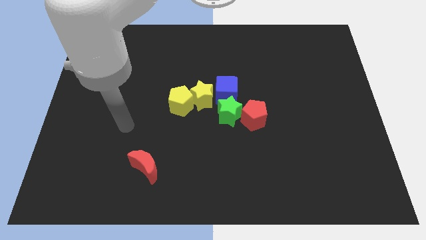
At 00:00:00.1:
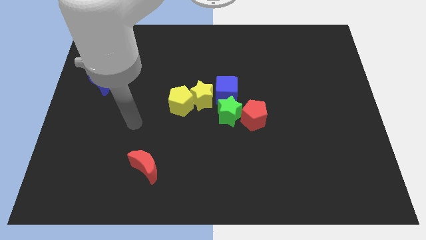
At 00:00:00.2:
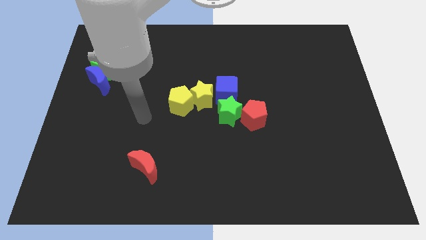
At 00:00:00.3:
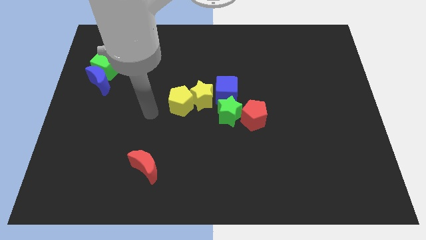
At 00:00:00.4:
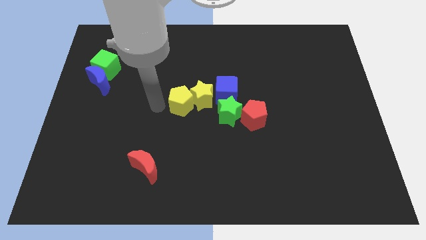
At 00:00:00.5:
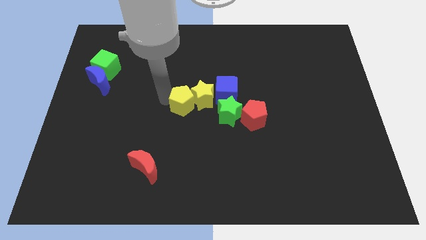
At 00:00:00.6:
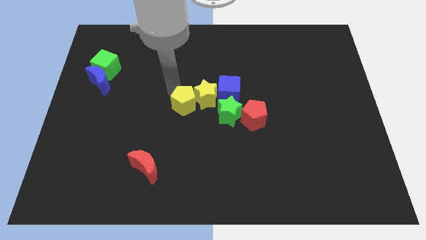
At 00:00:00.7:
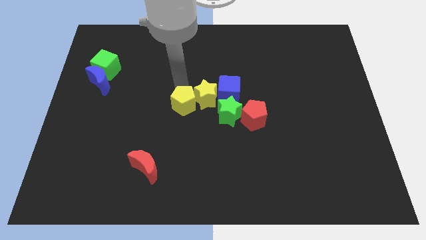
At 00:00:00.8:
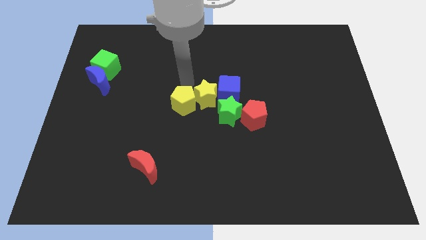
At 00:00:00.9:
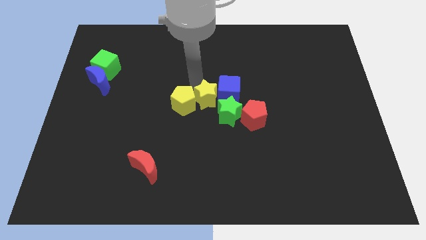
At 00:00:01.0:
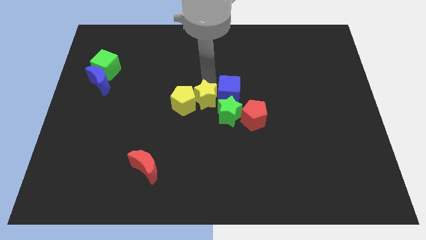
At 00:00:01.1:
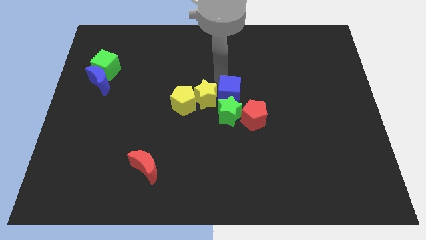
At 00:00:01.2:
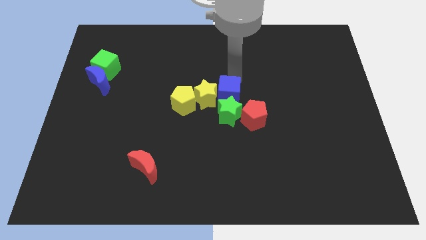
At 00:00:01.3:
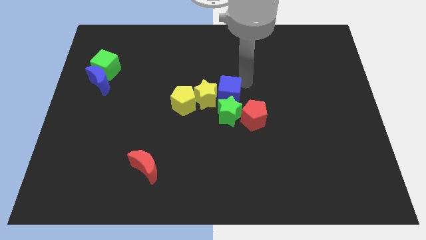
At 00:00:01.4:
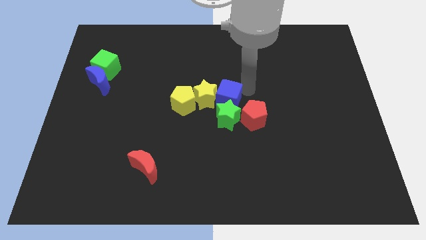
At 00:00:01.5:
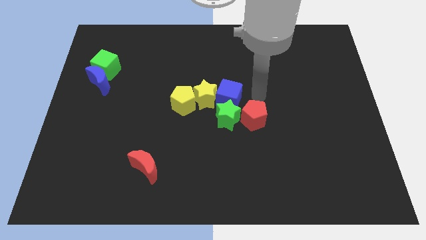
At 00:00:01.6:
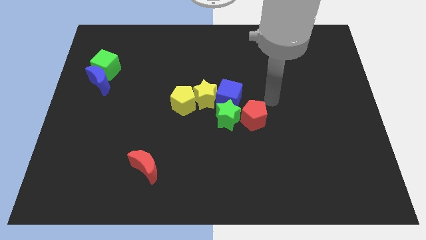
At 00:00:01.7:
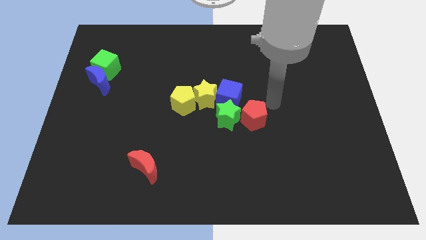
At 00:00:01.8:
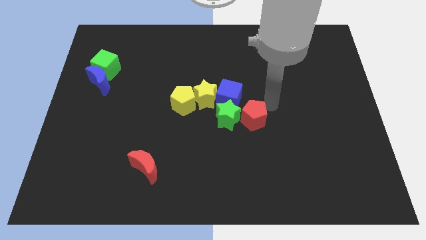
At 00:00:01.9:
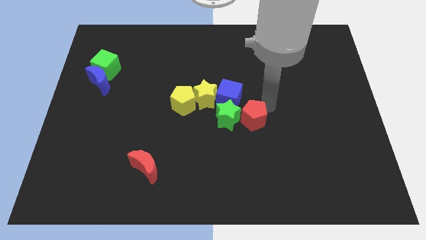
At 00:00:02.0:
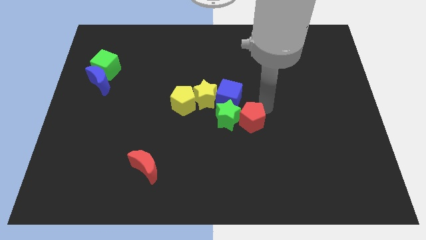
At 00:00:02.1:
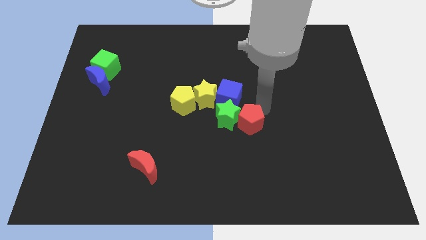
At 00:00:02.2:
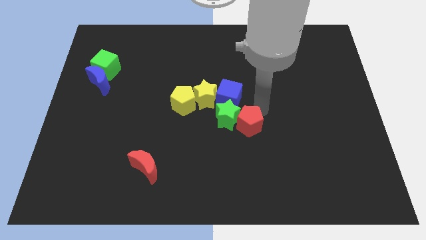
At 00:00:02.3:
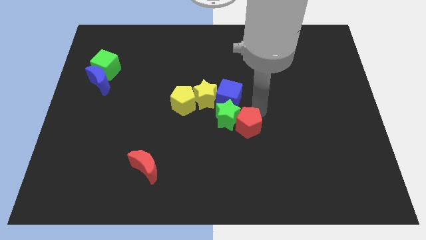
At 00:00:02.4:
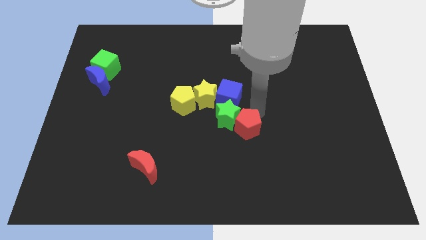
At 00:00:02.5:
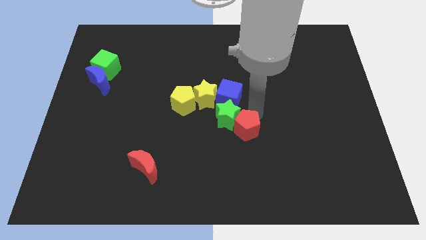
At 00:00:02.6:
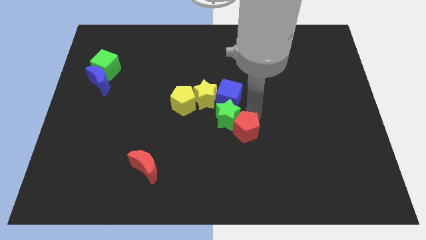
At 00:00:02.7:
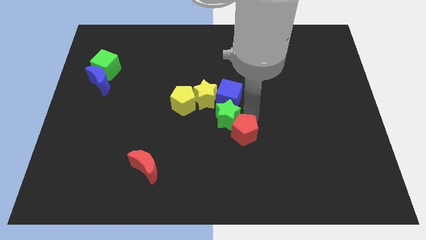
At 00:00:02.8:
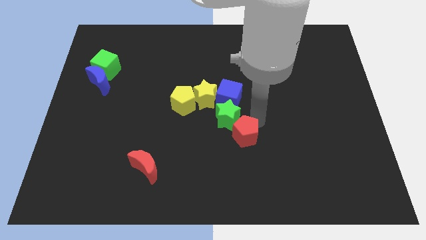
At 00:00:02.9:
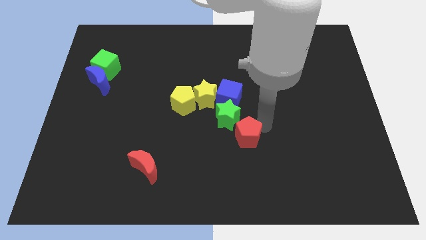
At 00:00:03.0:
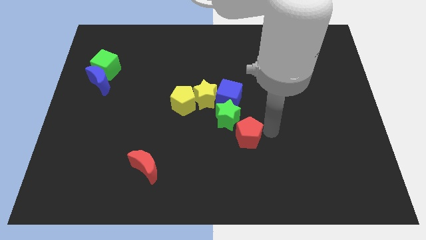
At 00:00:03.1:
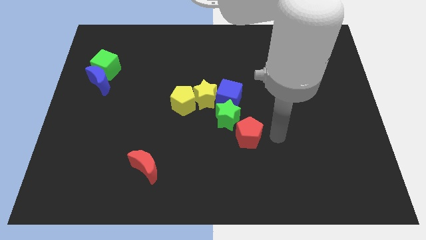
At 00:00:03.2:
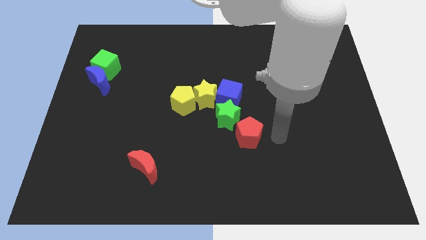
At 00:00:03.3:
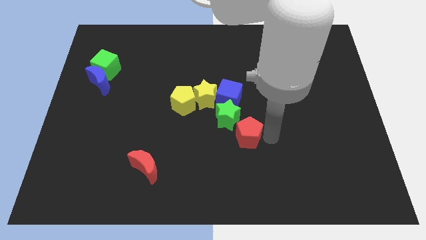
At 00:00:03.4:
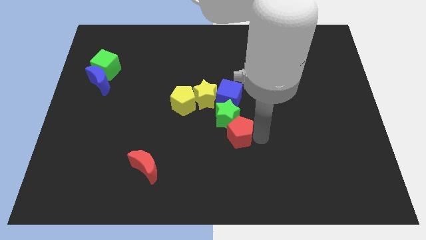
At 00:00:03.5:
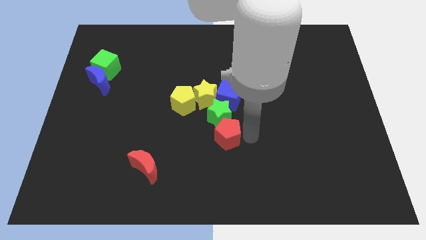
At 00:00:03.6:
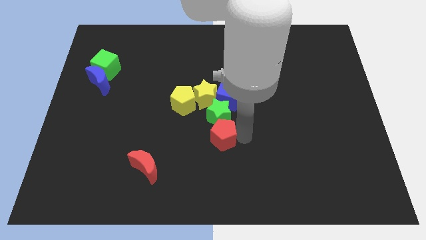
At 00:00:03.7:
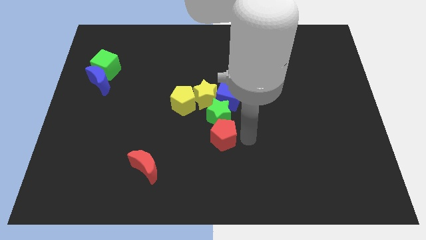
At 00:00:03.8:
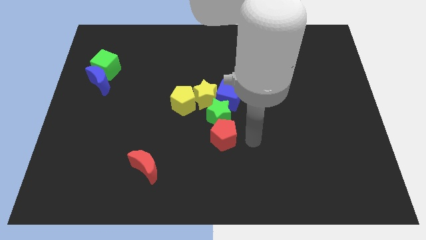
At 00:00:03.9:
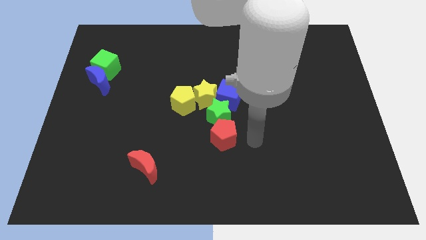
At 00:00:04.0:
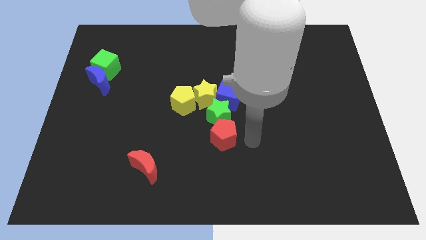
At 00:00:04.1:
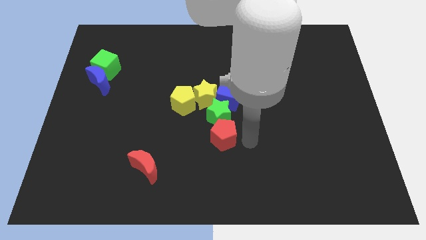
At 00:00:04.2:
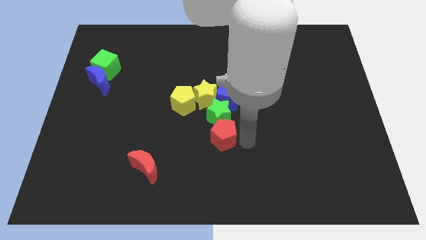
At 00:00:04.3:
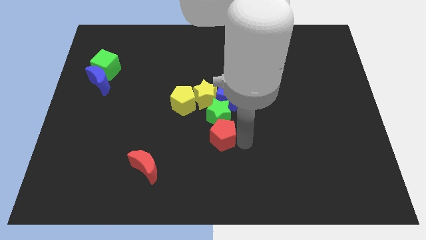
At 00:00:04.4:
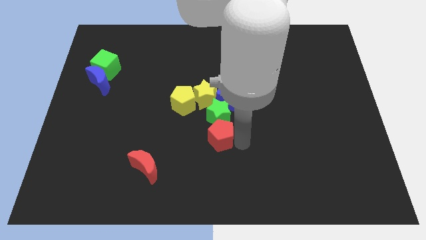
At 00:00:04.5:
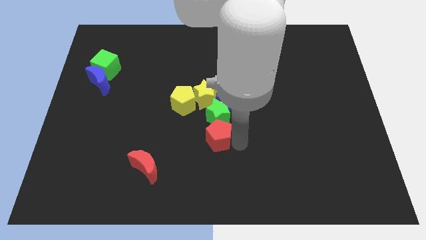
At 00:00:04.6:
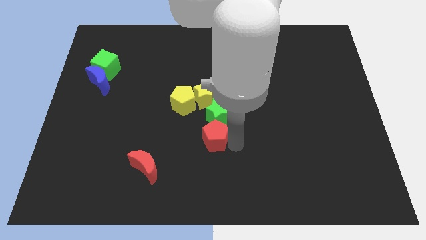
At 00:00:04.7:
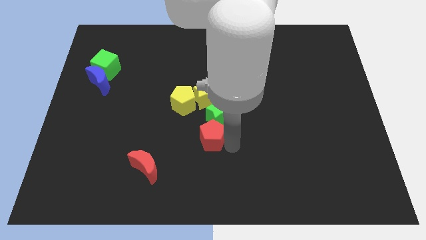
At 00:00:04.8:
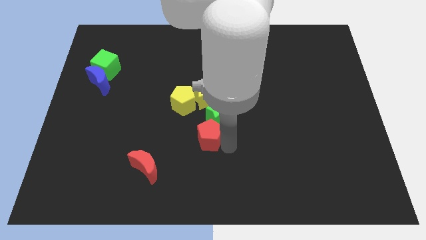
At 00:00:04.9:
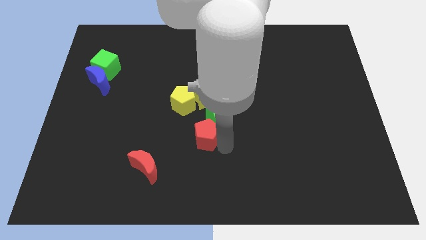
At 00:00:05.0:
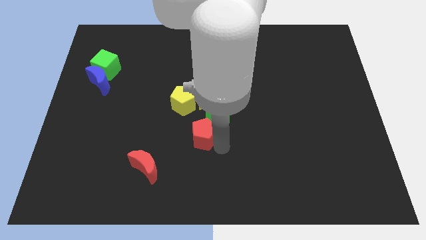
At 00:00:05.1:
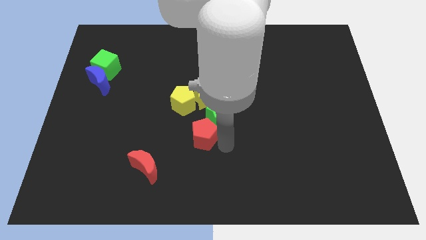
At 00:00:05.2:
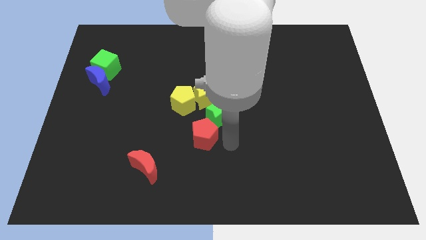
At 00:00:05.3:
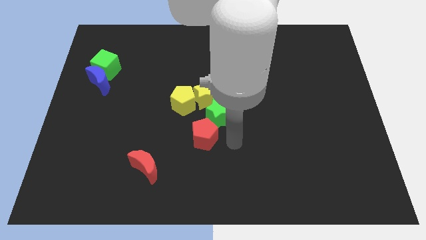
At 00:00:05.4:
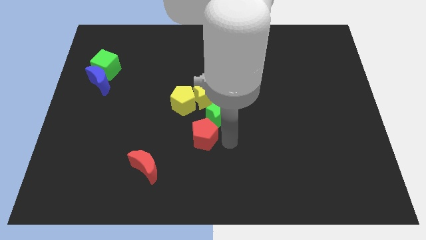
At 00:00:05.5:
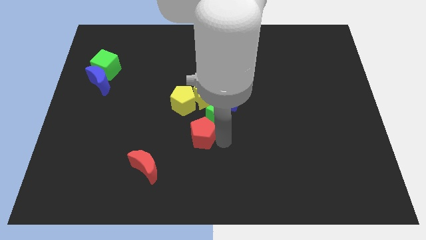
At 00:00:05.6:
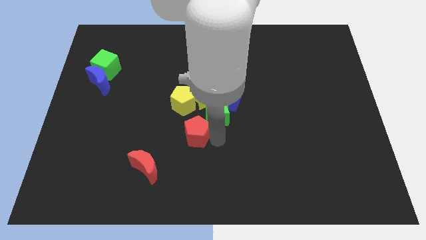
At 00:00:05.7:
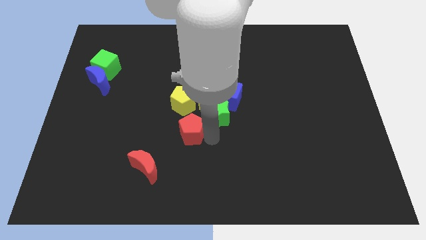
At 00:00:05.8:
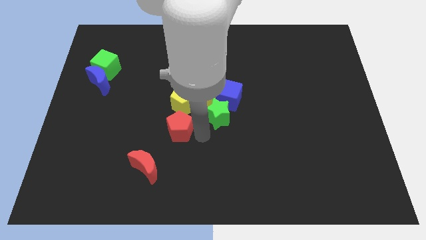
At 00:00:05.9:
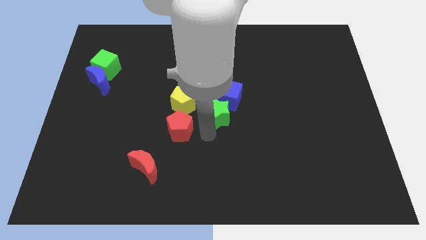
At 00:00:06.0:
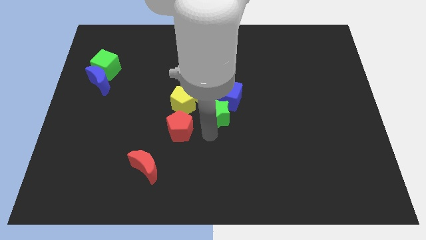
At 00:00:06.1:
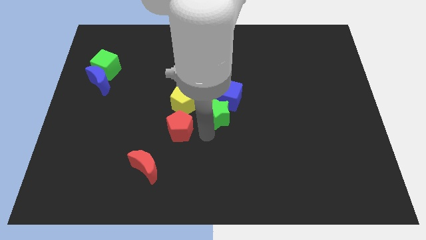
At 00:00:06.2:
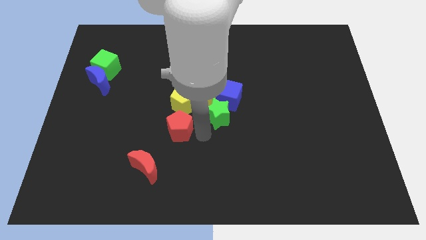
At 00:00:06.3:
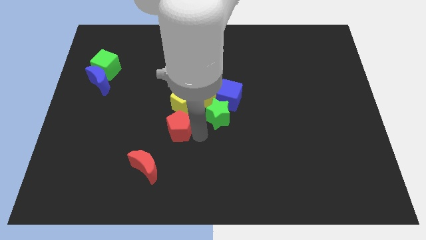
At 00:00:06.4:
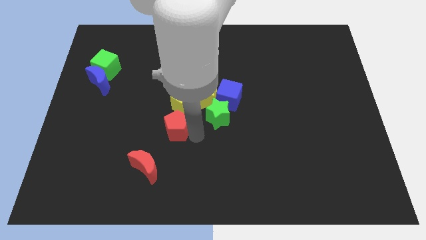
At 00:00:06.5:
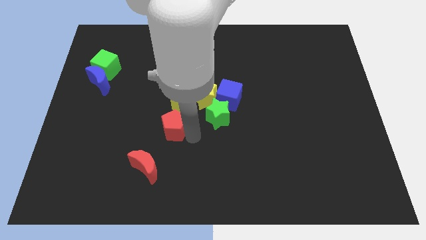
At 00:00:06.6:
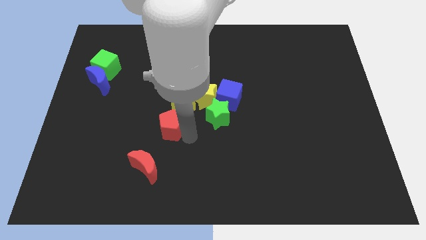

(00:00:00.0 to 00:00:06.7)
push the red pentagon to the top of the red moon
